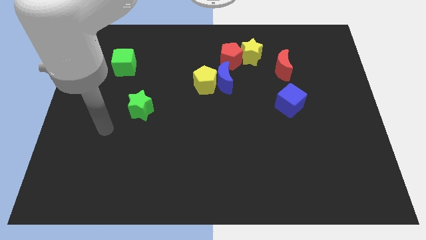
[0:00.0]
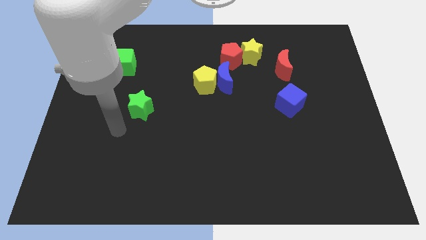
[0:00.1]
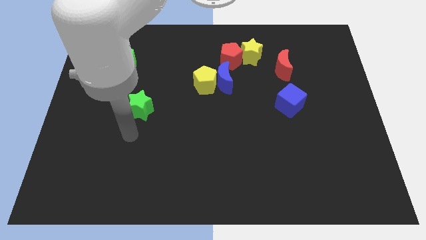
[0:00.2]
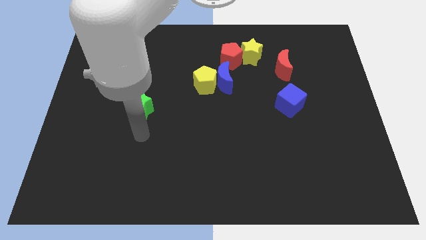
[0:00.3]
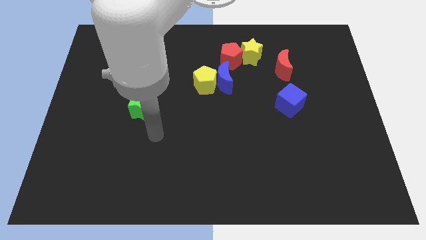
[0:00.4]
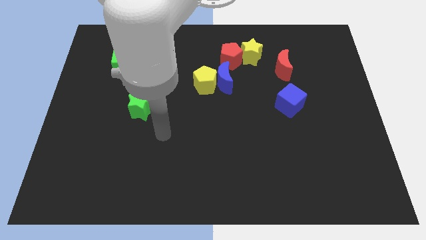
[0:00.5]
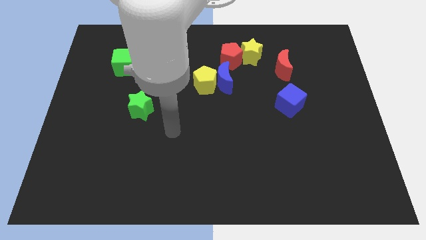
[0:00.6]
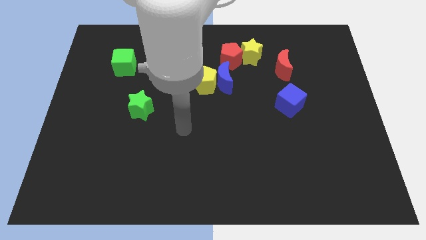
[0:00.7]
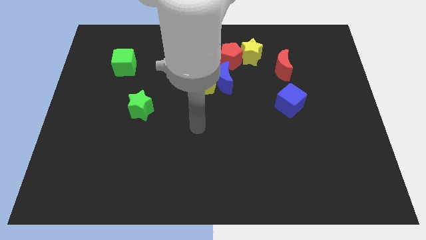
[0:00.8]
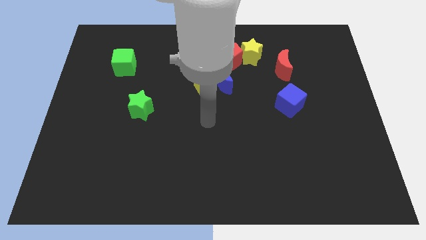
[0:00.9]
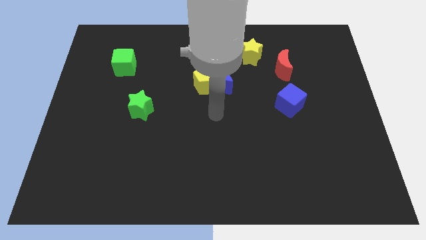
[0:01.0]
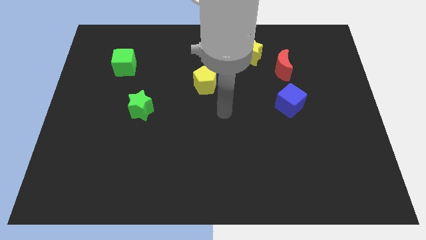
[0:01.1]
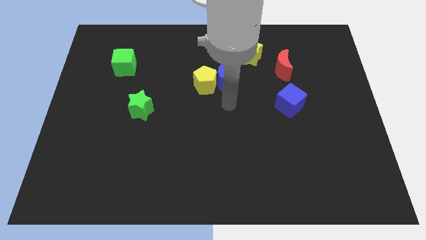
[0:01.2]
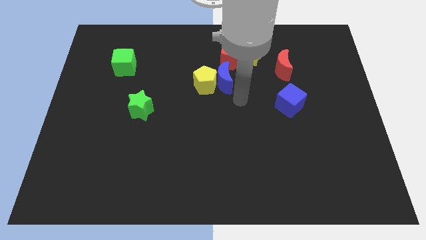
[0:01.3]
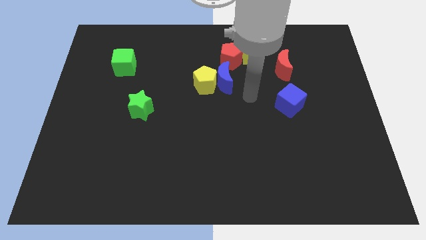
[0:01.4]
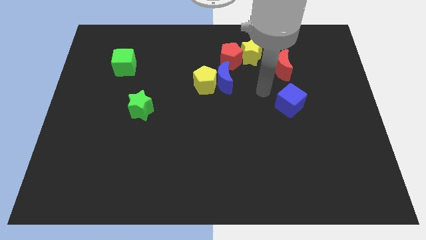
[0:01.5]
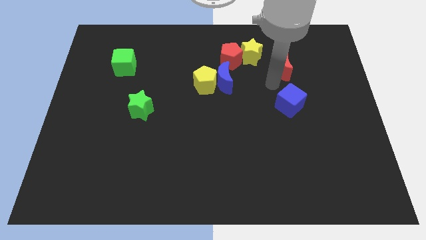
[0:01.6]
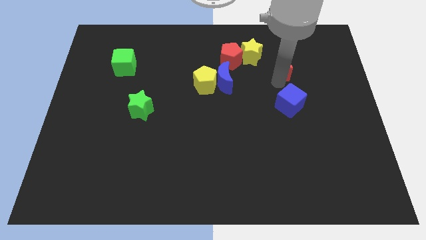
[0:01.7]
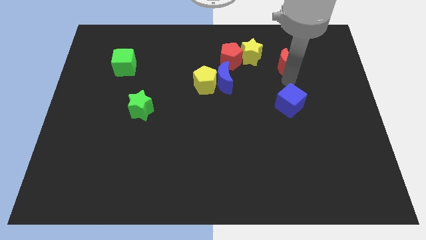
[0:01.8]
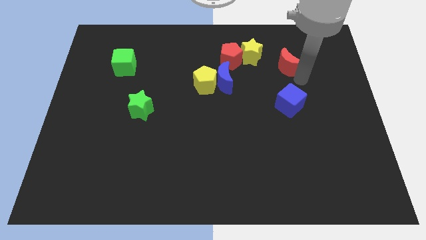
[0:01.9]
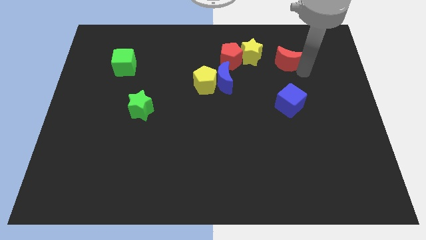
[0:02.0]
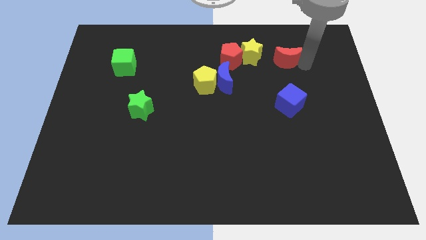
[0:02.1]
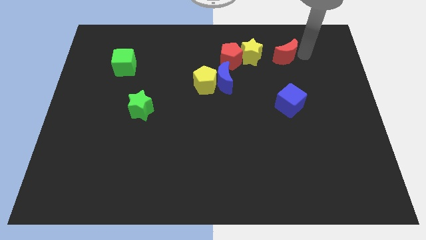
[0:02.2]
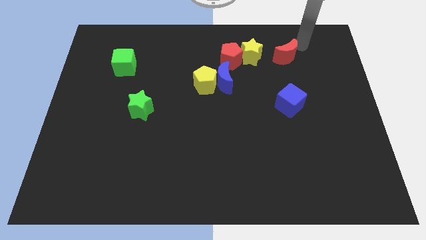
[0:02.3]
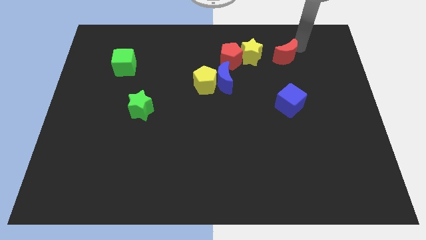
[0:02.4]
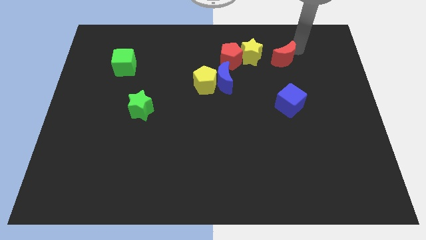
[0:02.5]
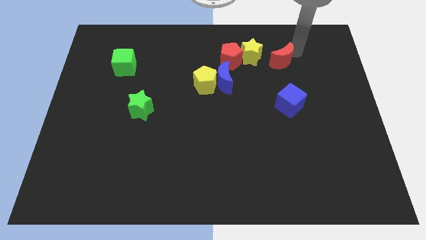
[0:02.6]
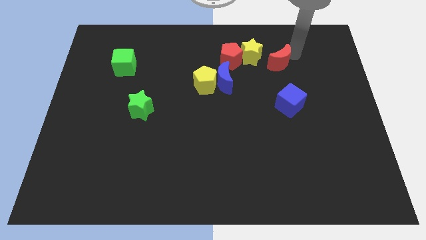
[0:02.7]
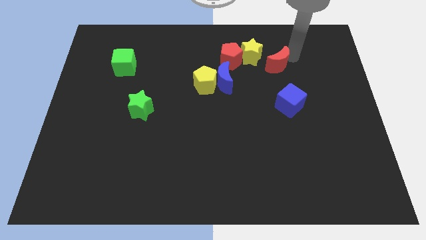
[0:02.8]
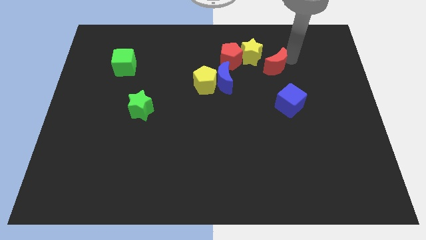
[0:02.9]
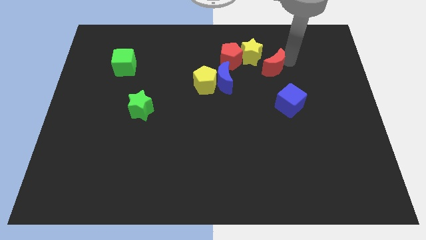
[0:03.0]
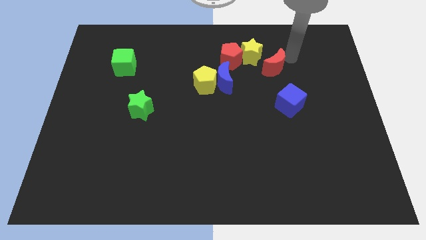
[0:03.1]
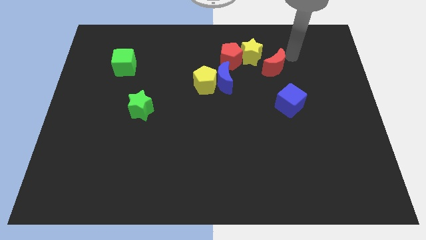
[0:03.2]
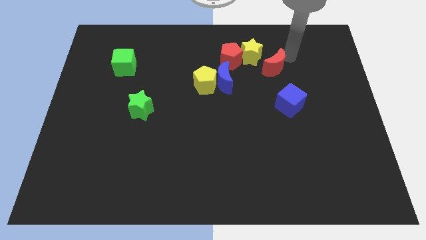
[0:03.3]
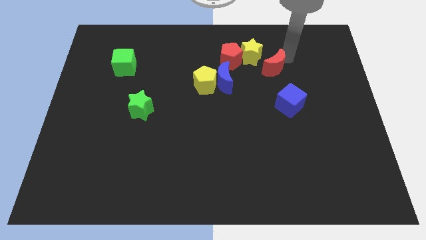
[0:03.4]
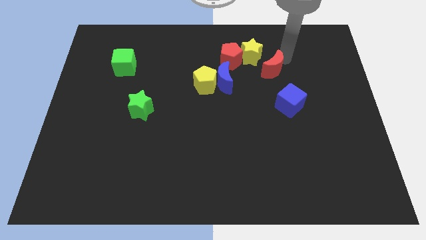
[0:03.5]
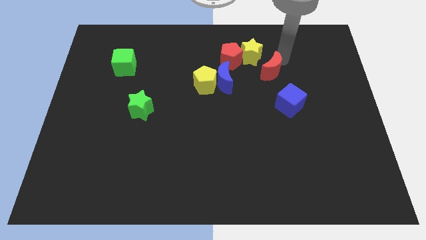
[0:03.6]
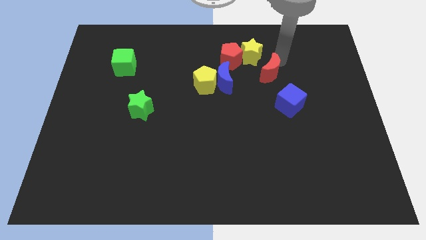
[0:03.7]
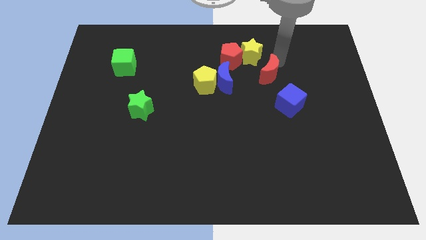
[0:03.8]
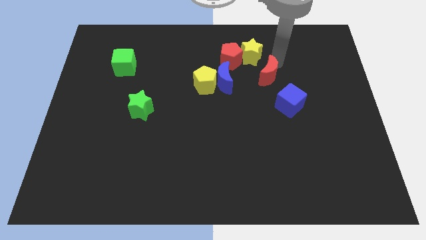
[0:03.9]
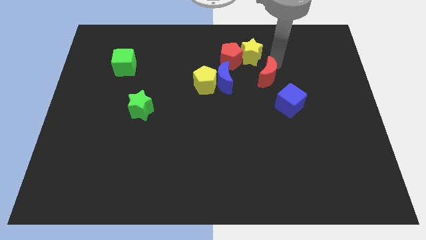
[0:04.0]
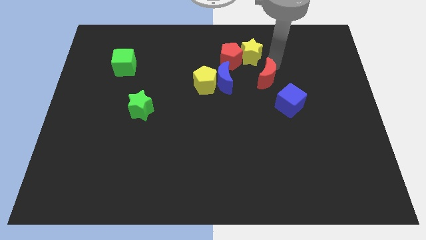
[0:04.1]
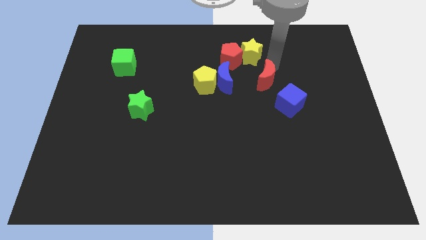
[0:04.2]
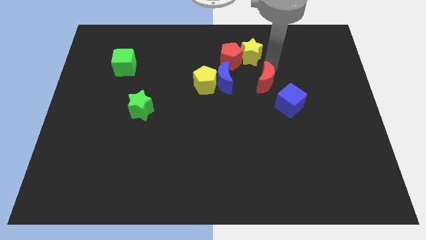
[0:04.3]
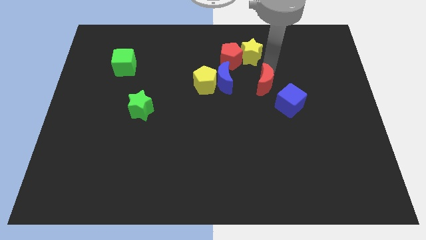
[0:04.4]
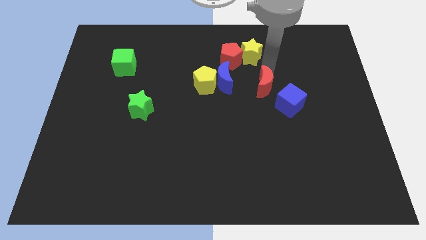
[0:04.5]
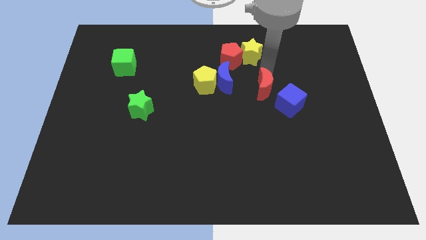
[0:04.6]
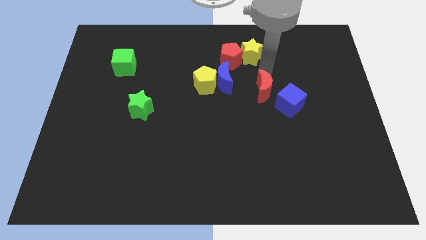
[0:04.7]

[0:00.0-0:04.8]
push the red moon to the middle of the board

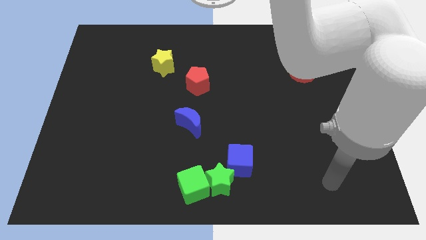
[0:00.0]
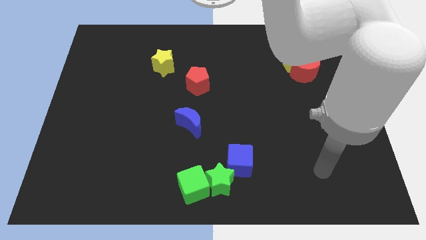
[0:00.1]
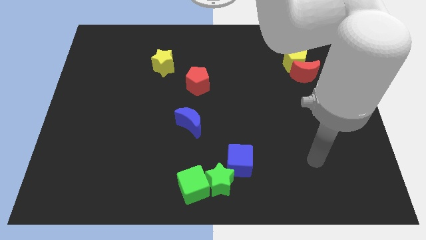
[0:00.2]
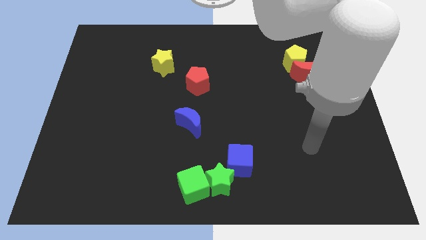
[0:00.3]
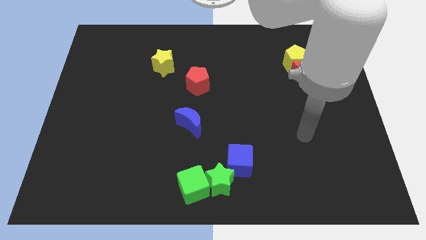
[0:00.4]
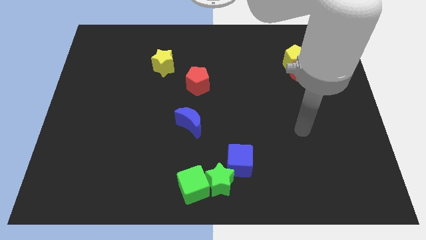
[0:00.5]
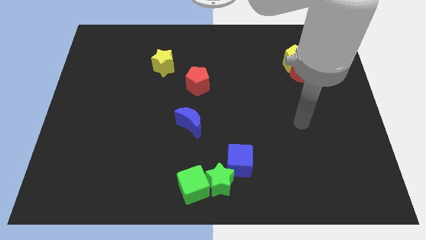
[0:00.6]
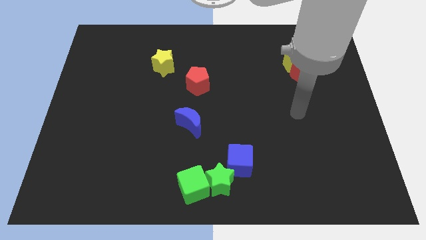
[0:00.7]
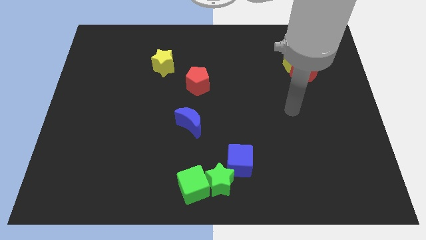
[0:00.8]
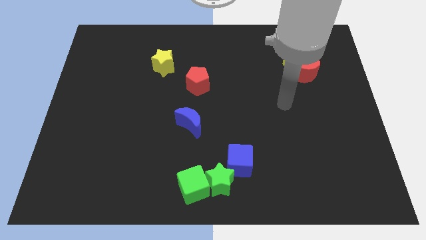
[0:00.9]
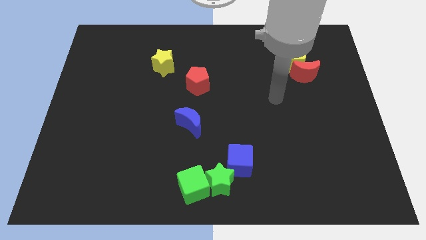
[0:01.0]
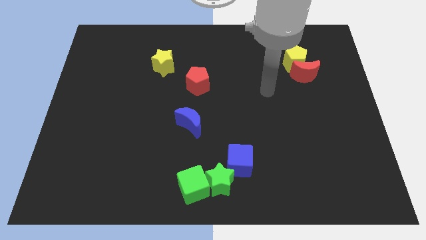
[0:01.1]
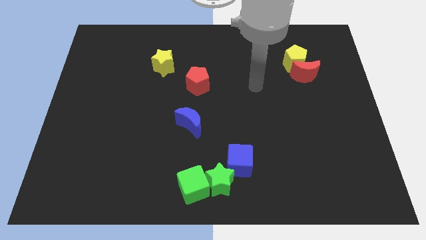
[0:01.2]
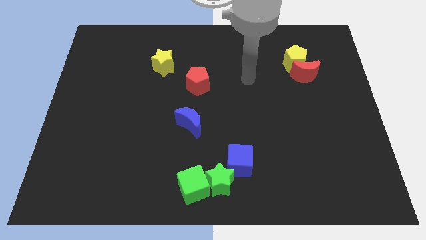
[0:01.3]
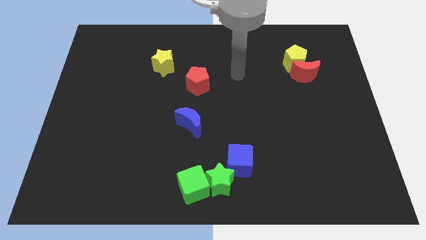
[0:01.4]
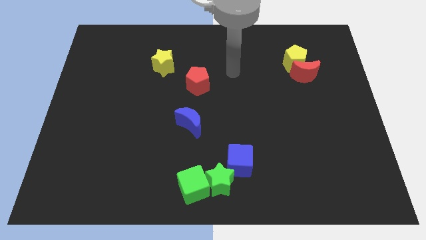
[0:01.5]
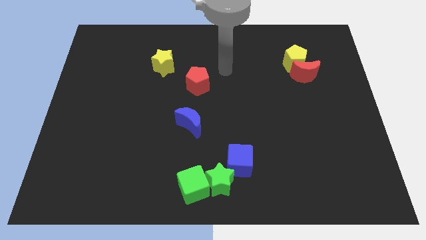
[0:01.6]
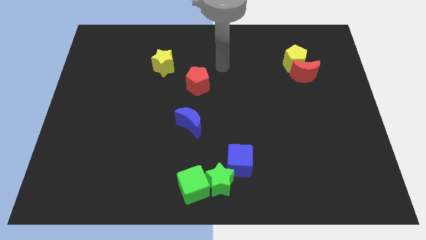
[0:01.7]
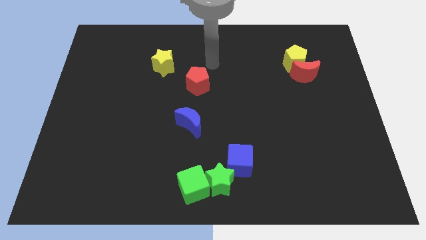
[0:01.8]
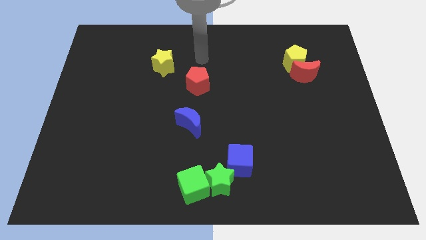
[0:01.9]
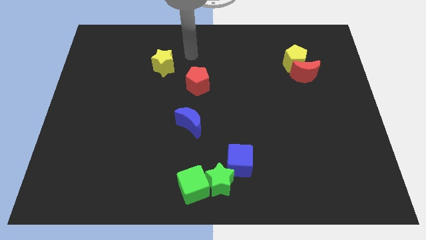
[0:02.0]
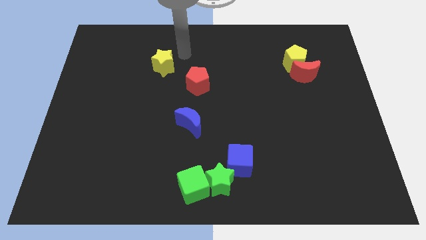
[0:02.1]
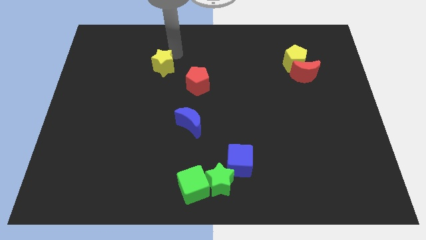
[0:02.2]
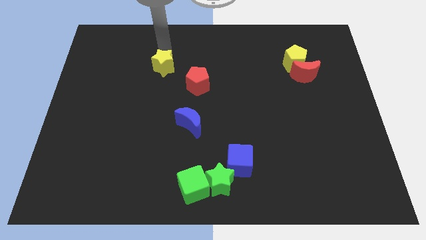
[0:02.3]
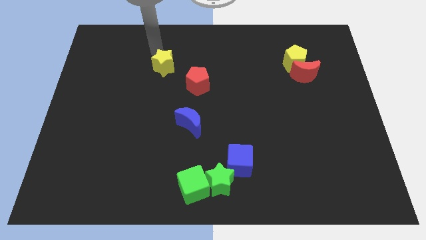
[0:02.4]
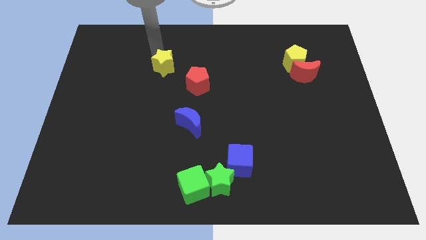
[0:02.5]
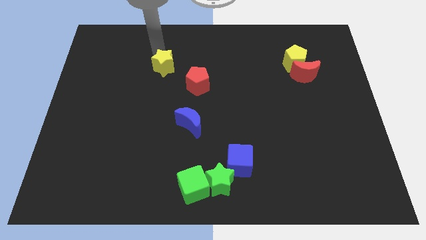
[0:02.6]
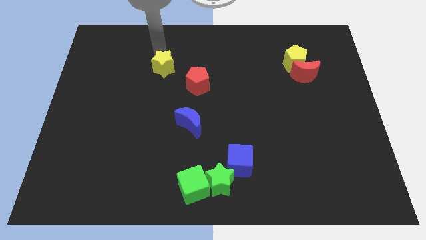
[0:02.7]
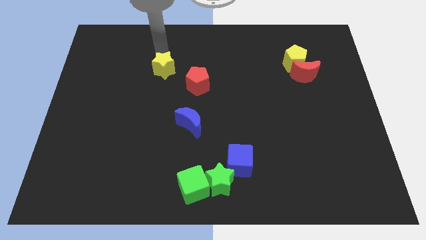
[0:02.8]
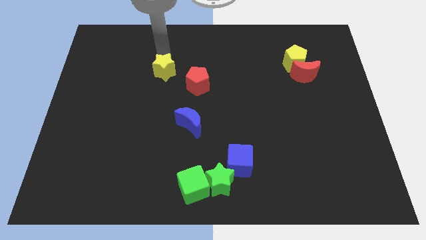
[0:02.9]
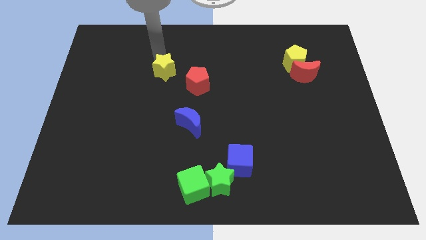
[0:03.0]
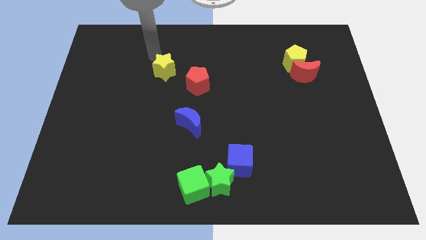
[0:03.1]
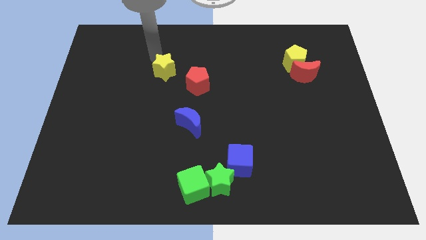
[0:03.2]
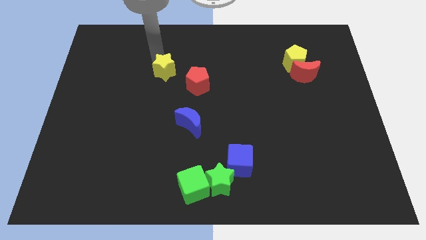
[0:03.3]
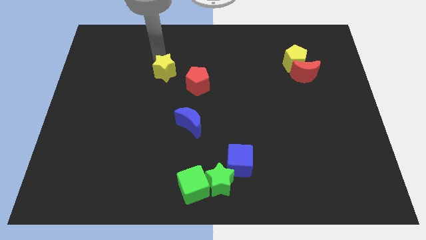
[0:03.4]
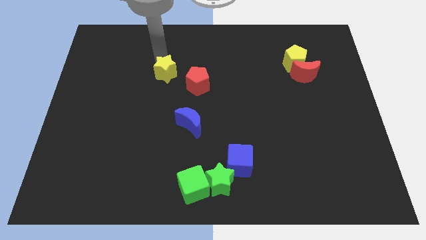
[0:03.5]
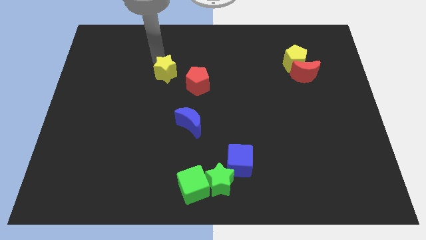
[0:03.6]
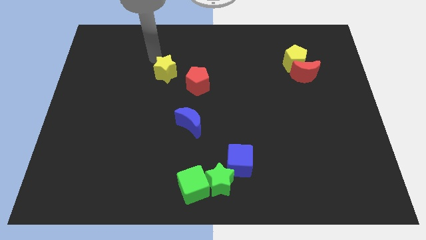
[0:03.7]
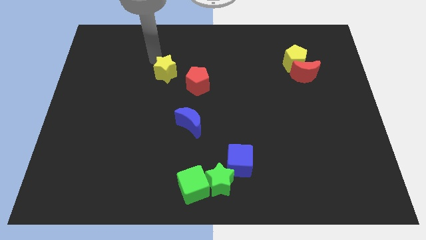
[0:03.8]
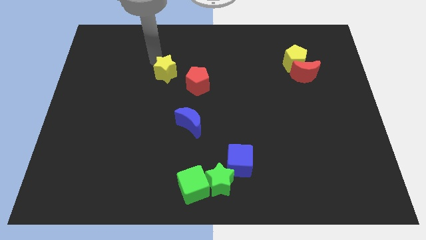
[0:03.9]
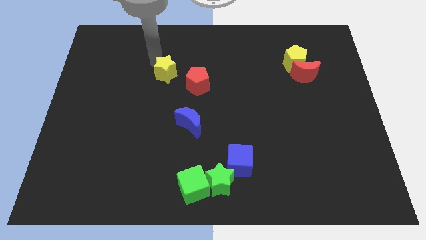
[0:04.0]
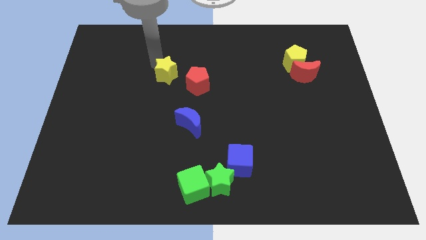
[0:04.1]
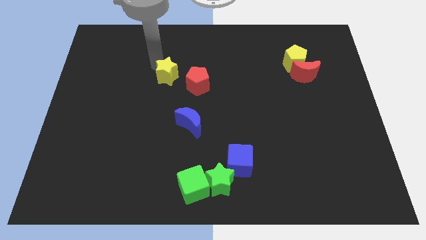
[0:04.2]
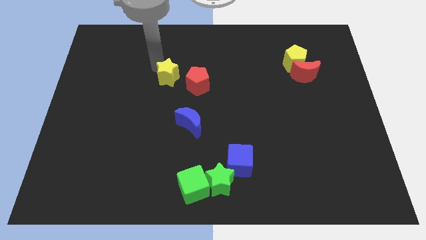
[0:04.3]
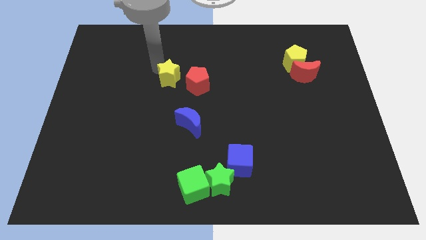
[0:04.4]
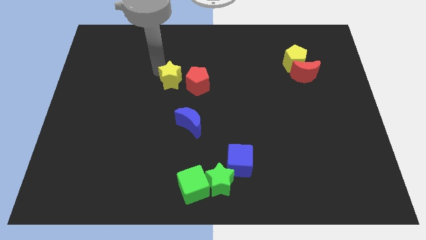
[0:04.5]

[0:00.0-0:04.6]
slide the yellow star to the center
